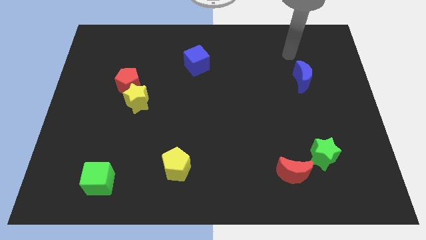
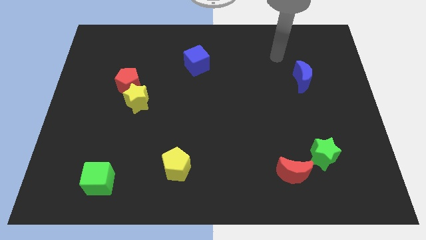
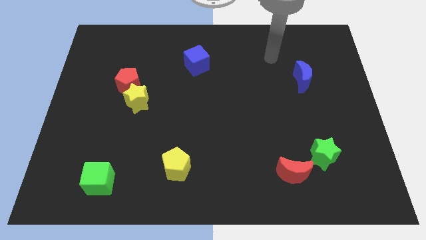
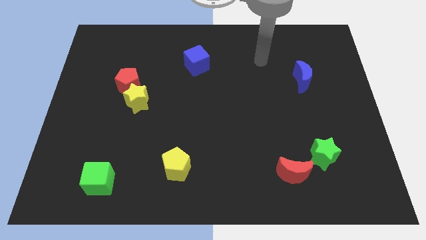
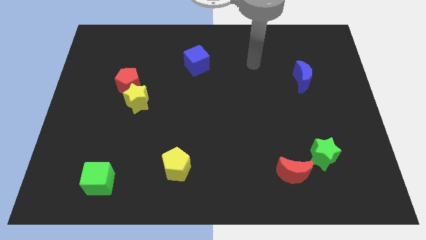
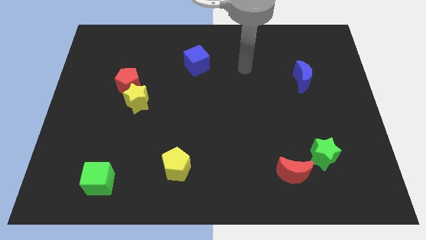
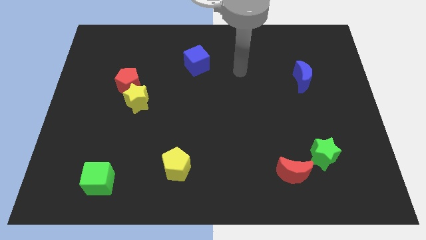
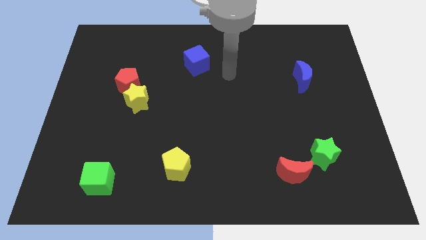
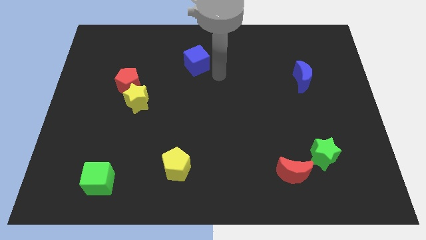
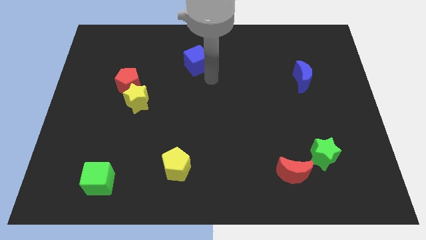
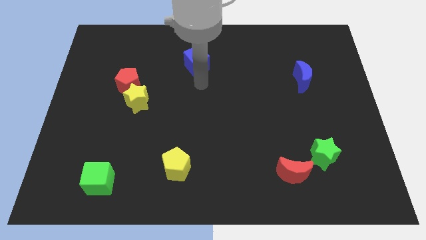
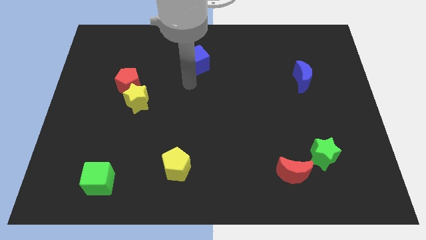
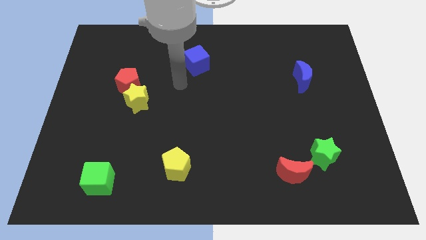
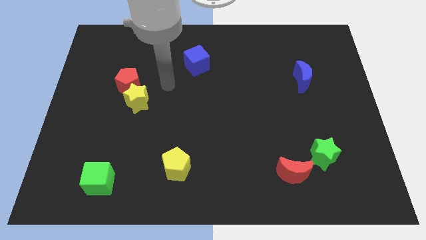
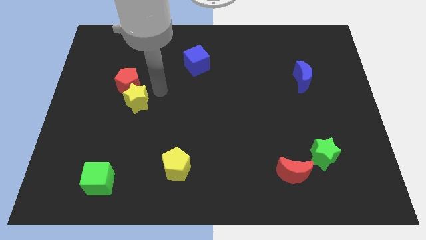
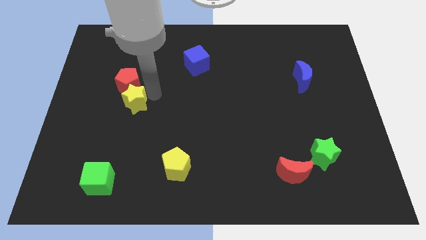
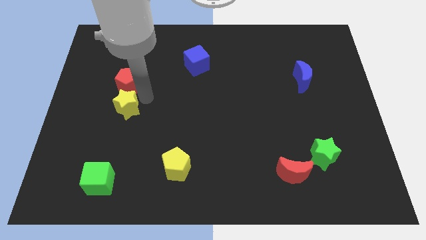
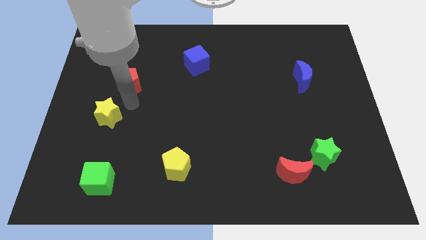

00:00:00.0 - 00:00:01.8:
separate the red pentagon from the yellow star

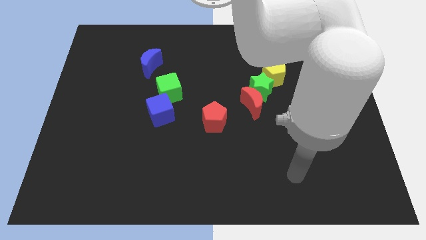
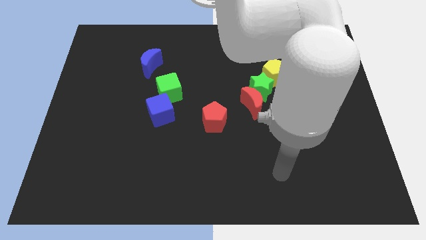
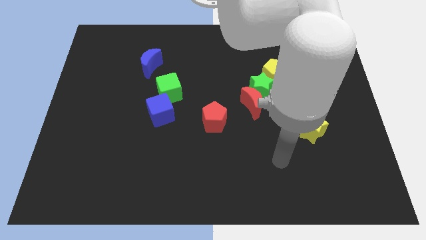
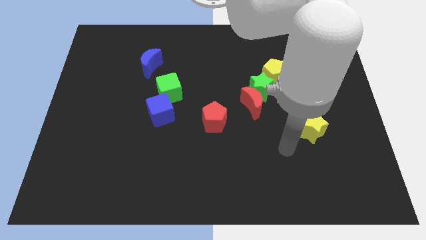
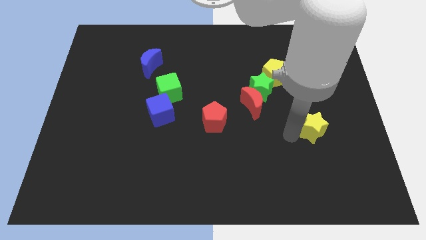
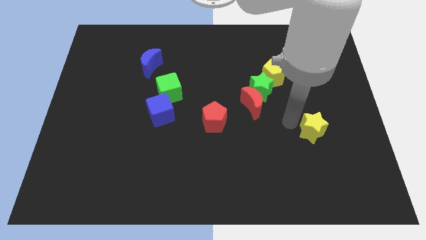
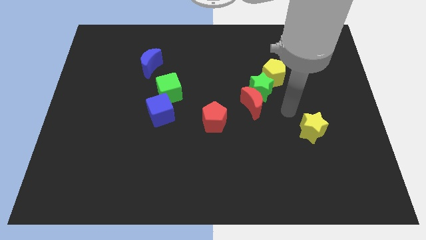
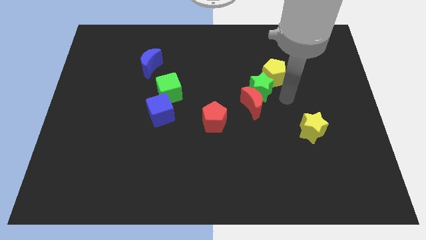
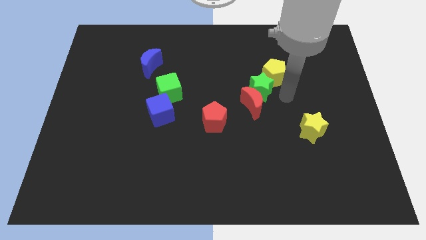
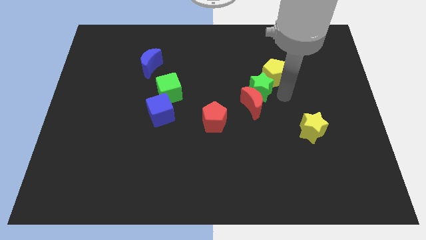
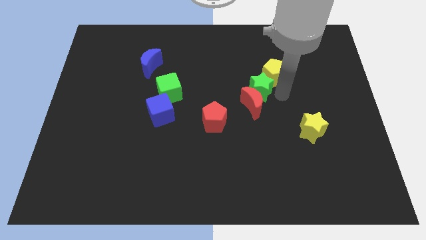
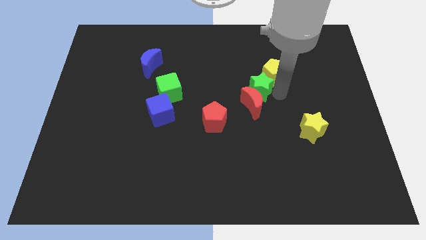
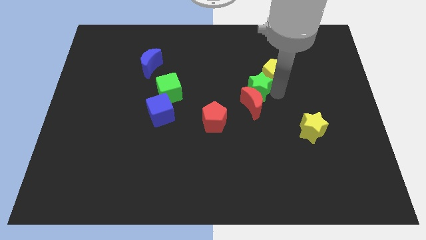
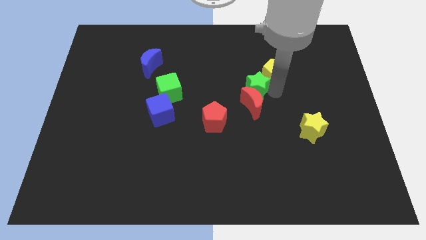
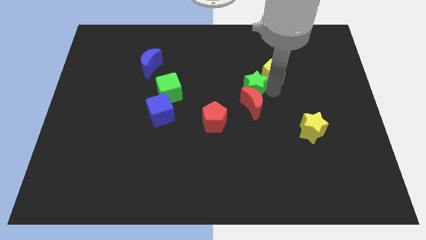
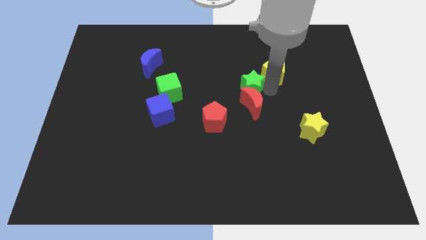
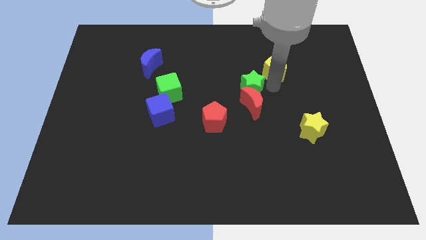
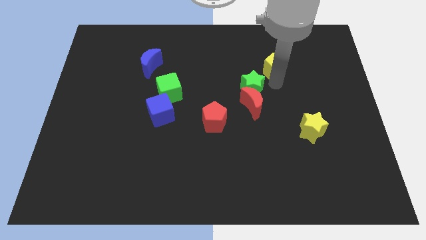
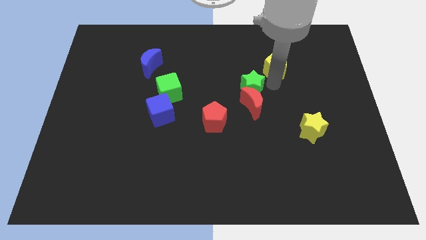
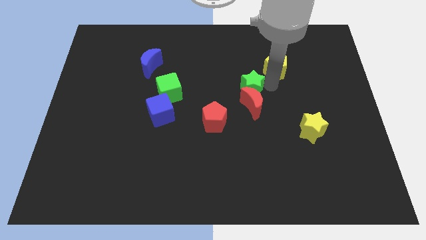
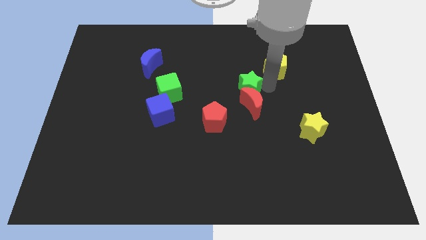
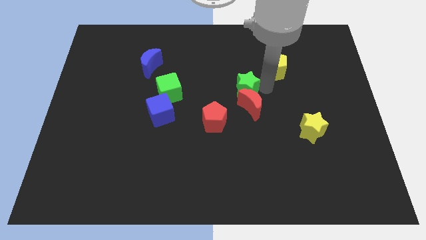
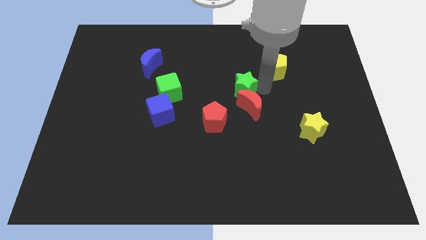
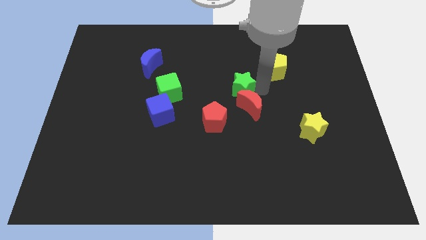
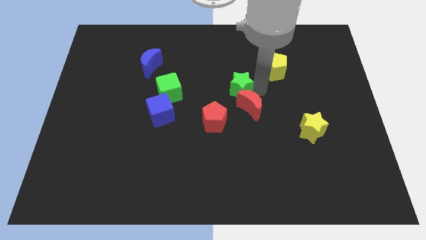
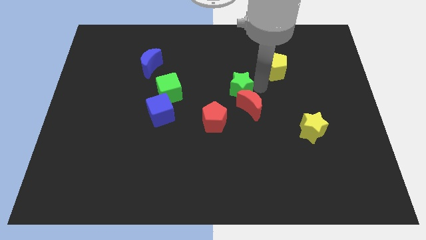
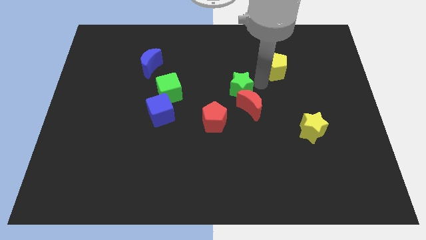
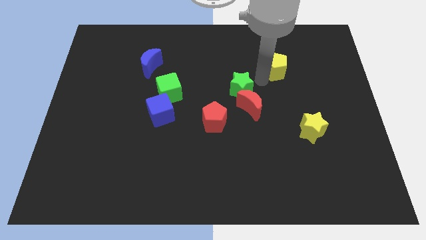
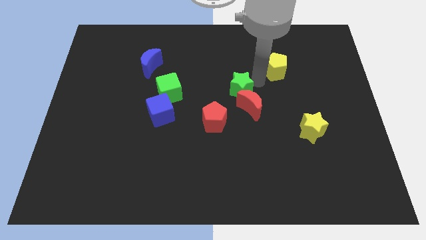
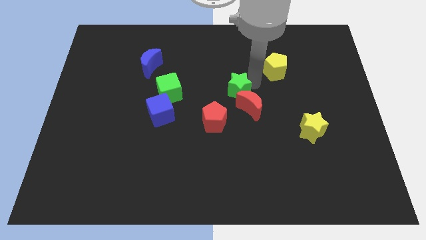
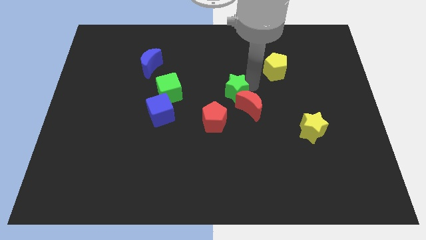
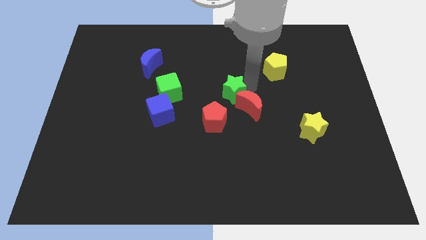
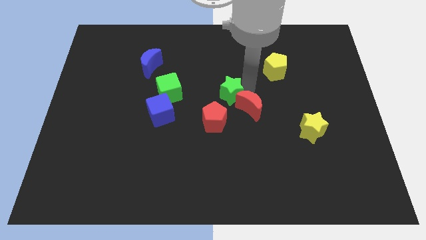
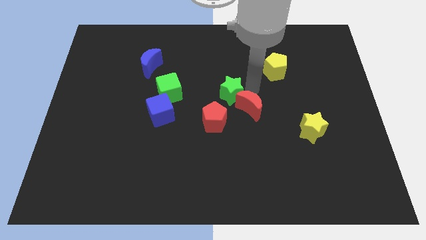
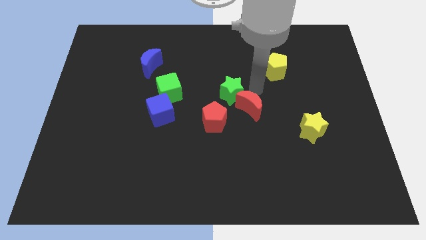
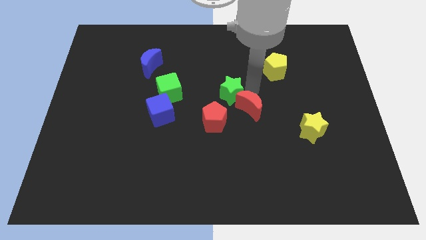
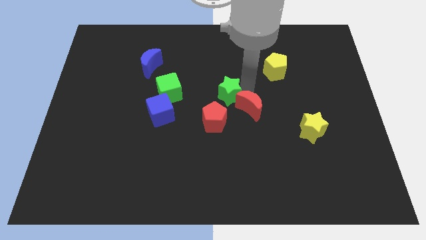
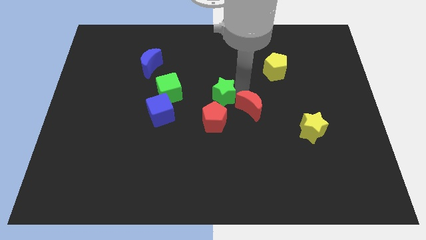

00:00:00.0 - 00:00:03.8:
separate the green star from the red moon and yellow pentagon

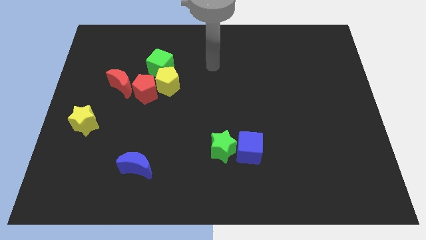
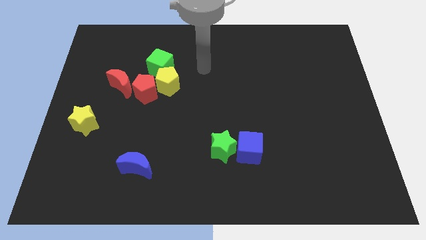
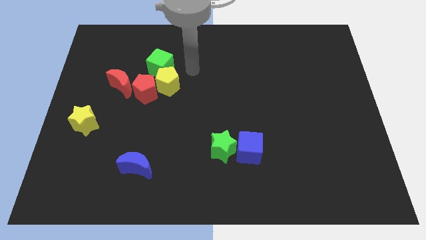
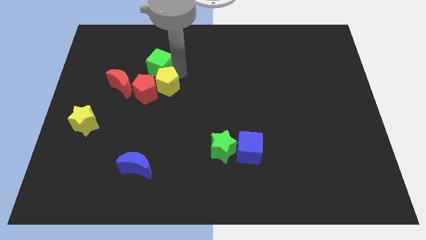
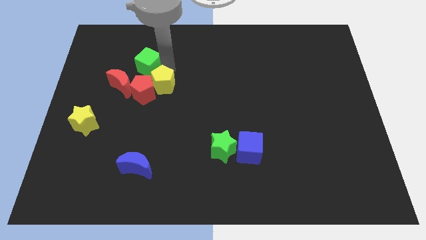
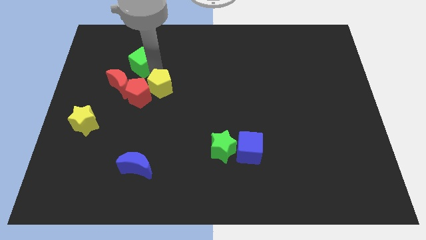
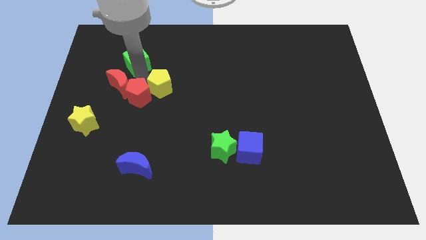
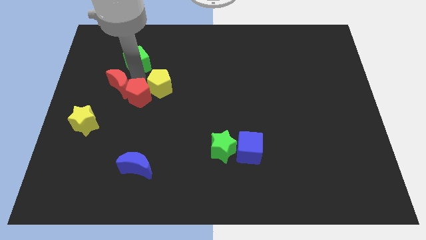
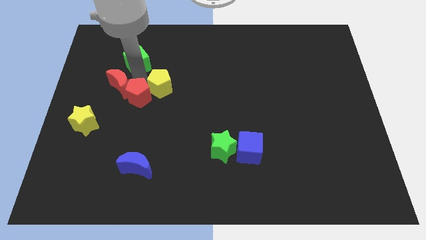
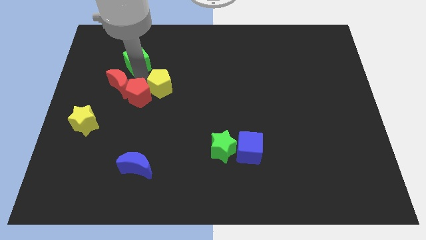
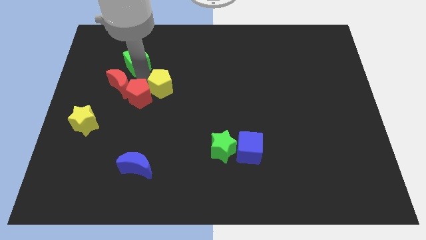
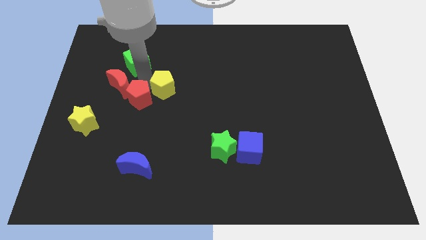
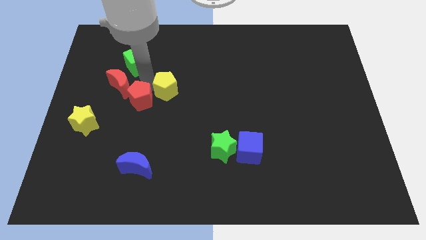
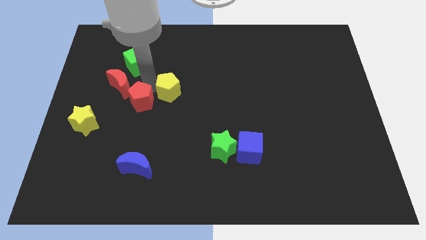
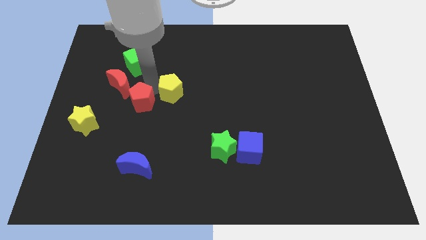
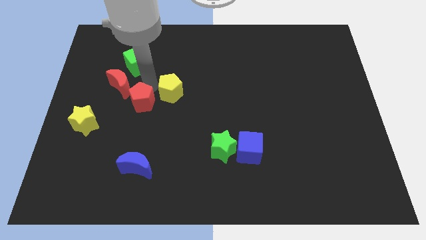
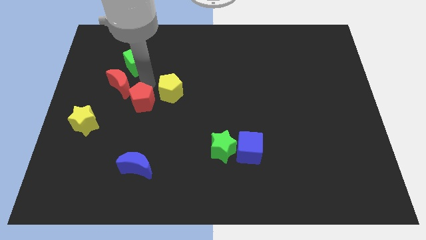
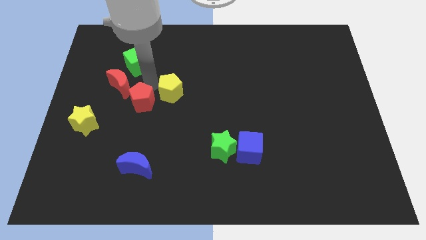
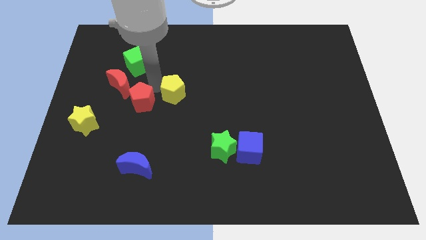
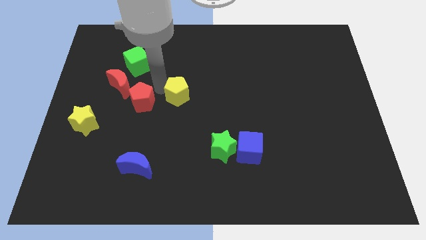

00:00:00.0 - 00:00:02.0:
separate the yellow pentagon from the red pentagon and green cube

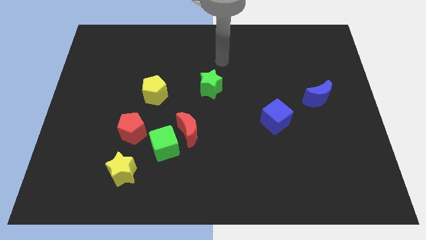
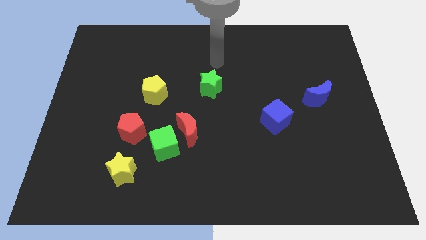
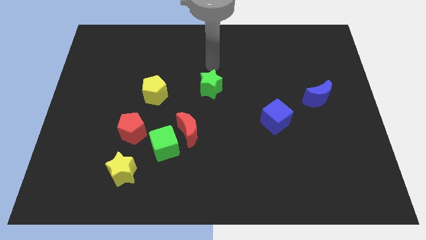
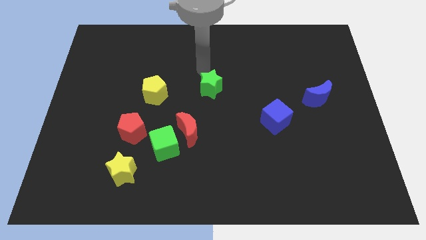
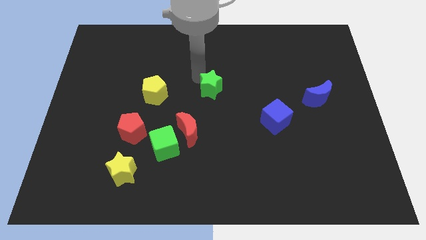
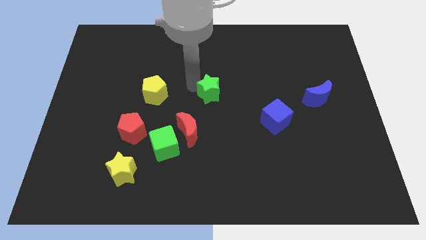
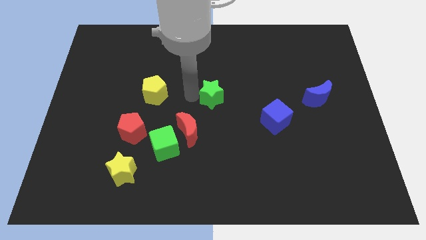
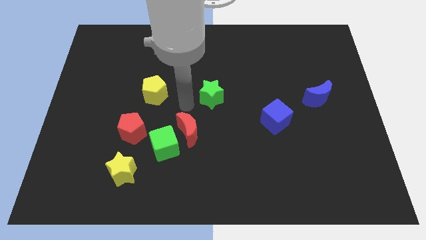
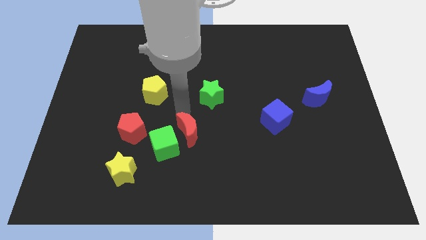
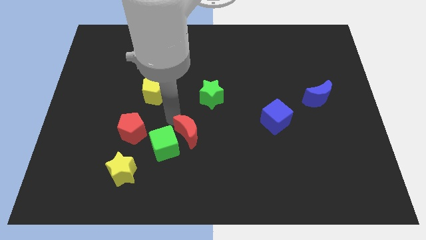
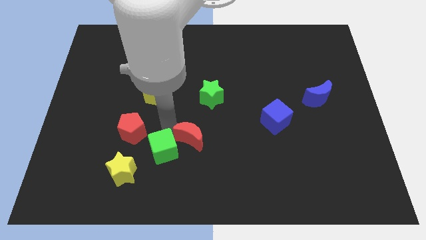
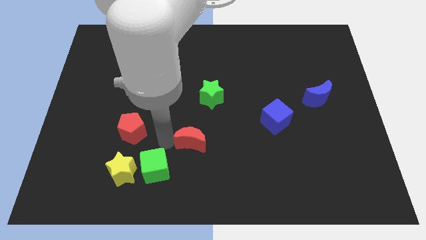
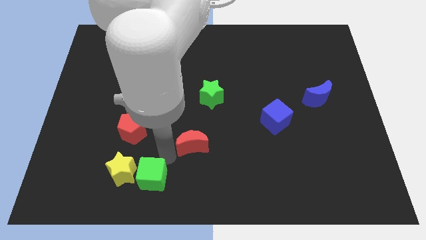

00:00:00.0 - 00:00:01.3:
move the red moon away from the green cube

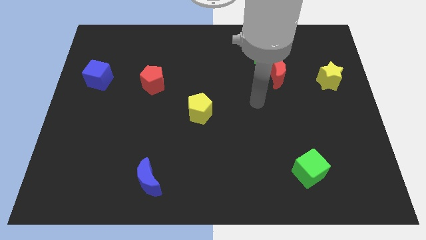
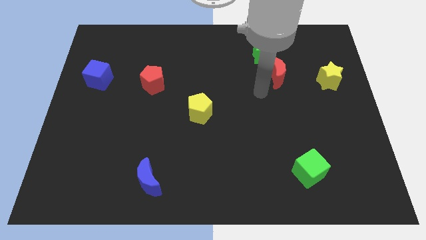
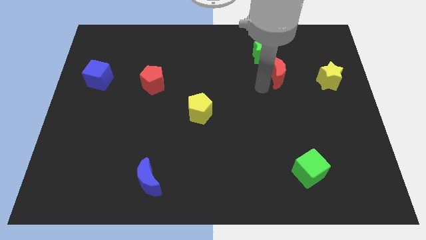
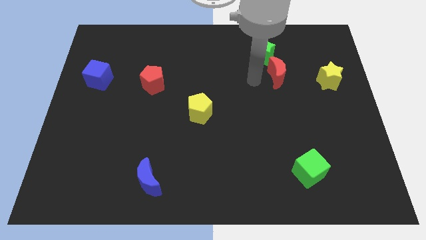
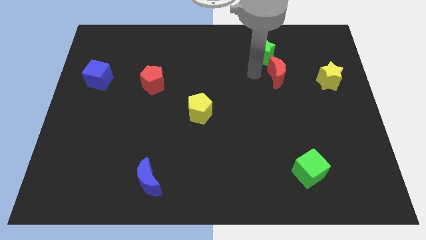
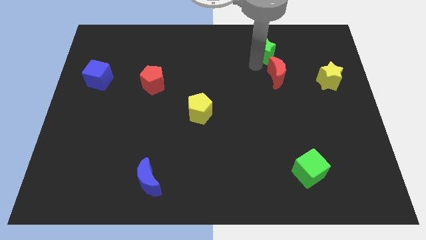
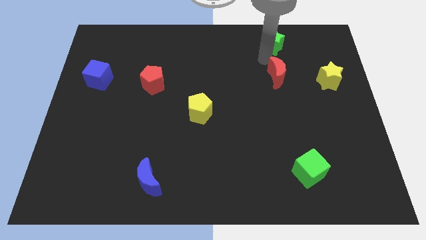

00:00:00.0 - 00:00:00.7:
separate the red moon from the green star
